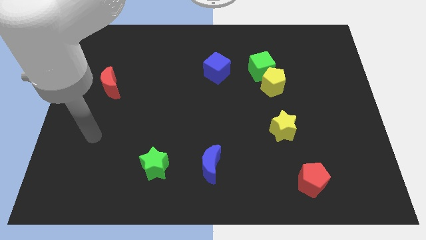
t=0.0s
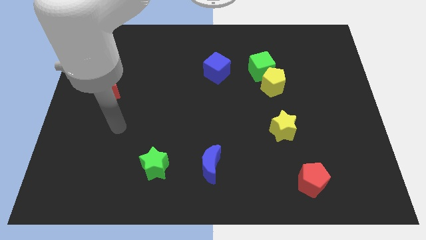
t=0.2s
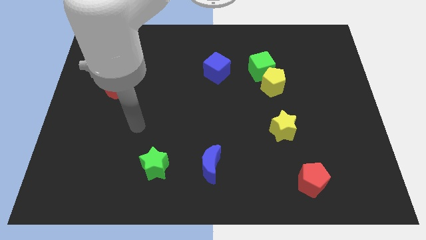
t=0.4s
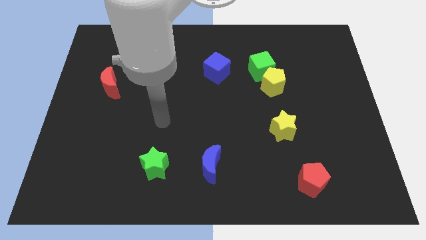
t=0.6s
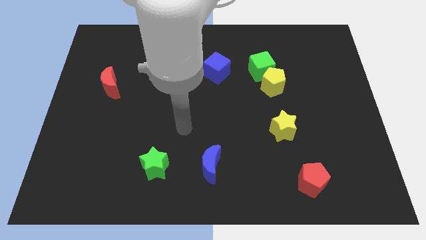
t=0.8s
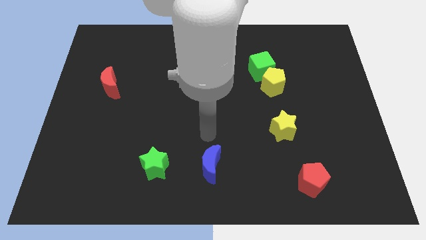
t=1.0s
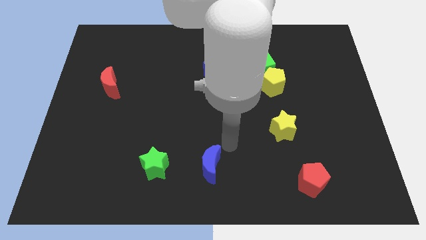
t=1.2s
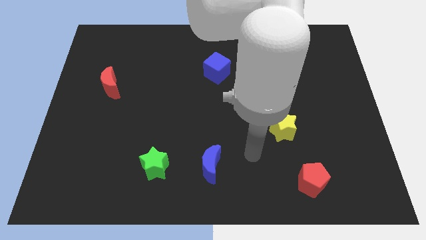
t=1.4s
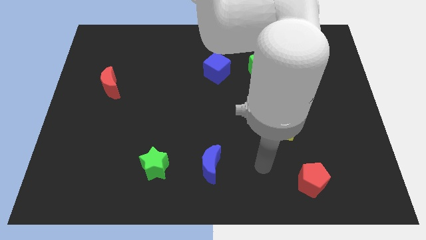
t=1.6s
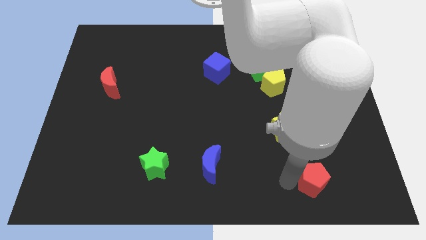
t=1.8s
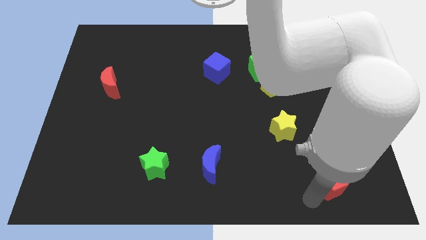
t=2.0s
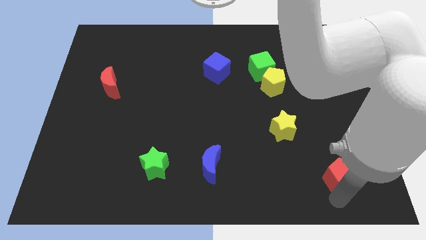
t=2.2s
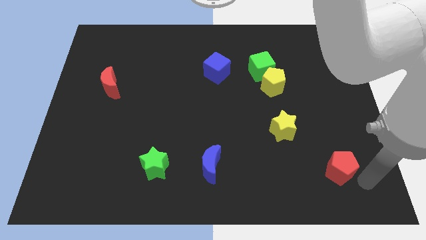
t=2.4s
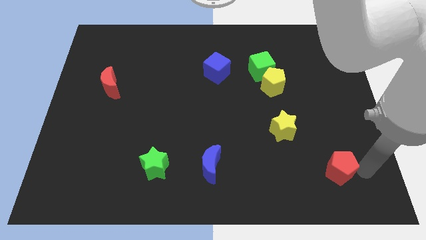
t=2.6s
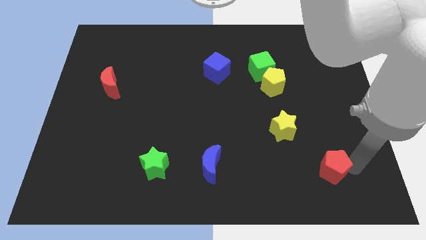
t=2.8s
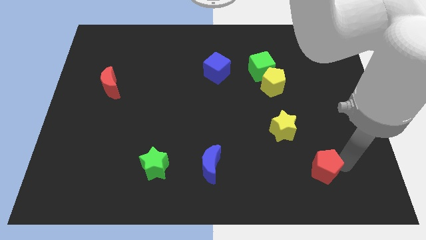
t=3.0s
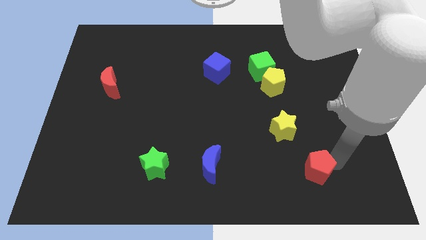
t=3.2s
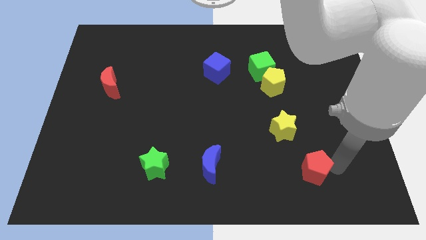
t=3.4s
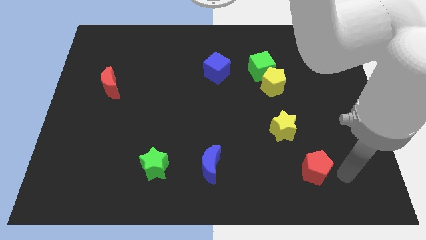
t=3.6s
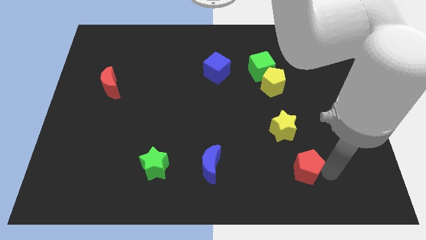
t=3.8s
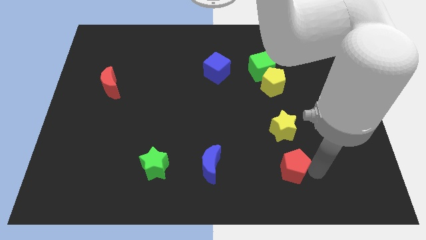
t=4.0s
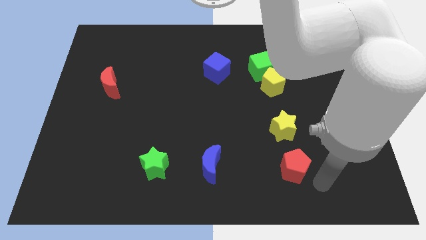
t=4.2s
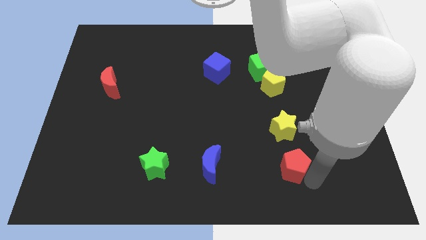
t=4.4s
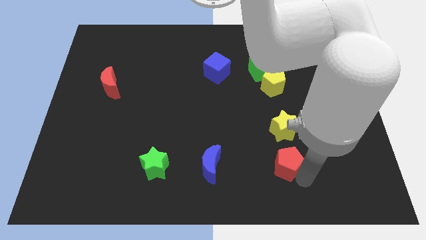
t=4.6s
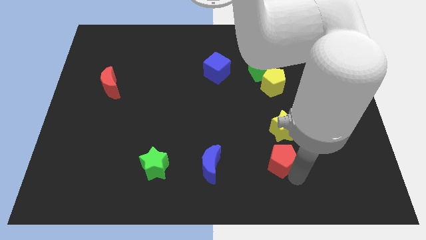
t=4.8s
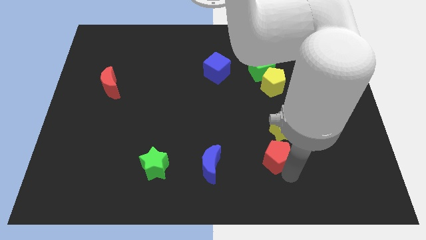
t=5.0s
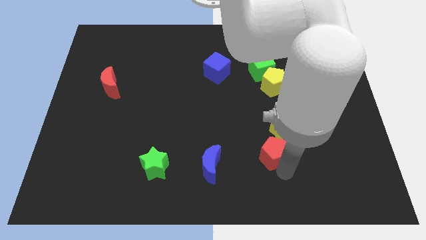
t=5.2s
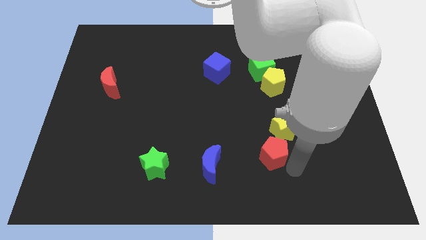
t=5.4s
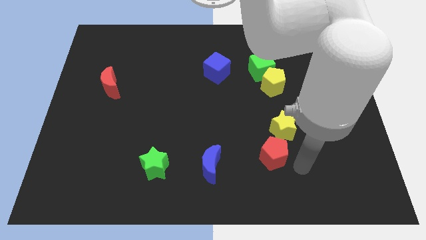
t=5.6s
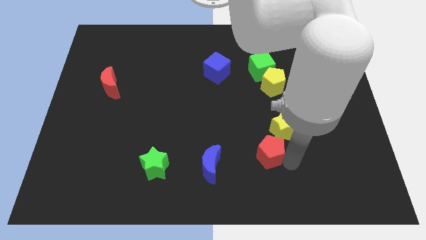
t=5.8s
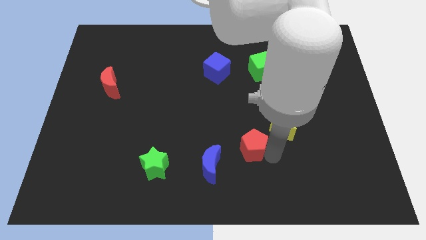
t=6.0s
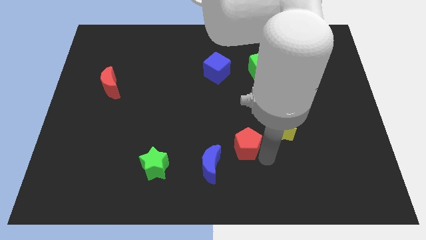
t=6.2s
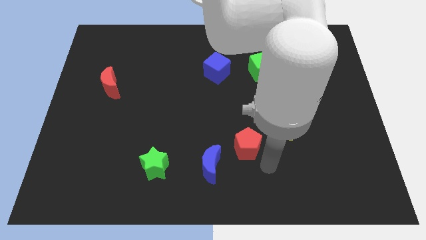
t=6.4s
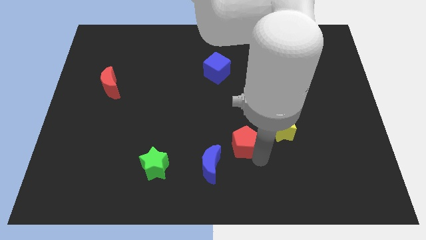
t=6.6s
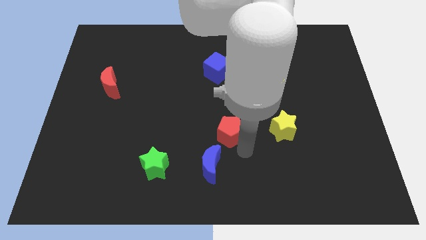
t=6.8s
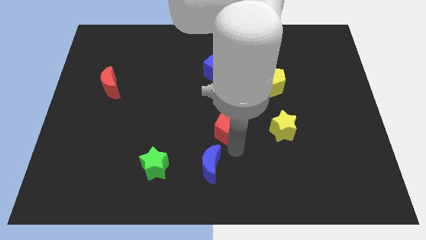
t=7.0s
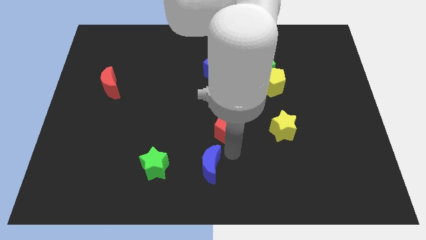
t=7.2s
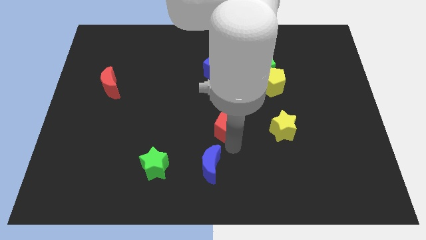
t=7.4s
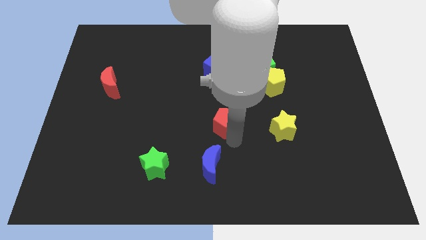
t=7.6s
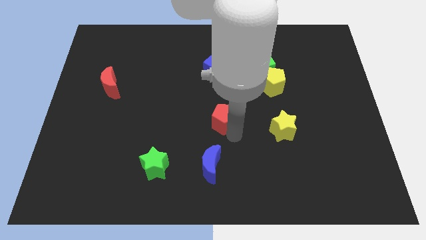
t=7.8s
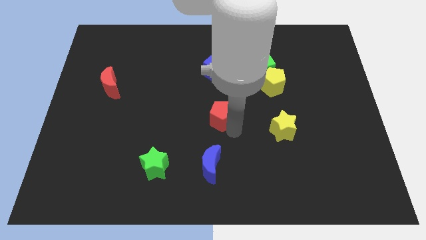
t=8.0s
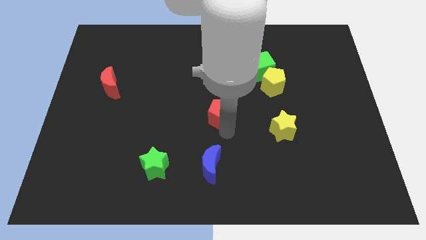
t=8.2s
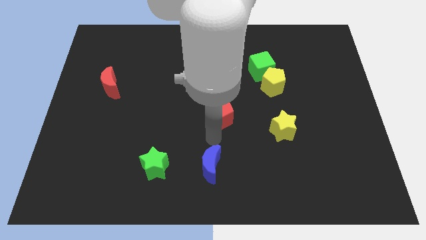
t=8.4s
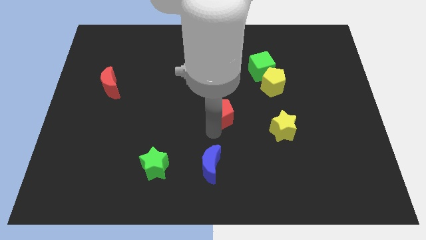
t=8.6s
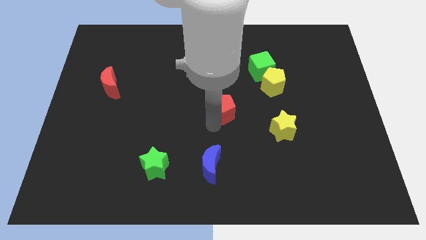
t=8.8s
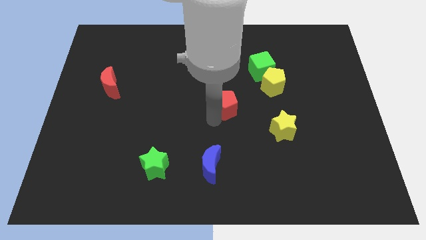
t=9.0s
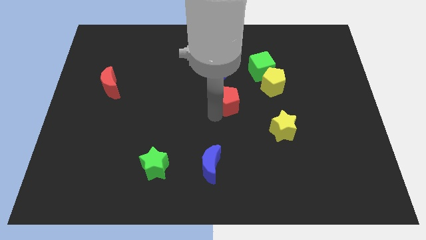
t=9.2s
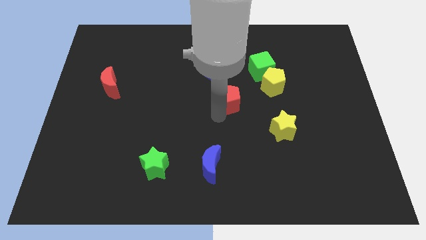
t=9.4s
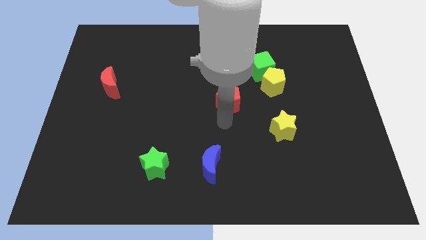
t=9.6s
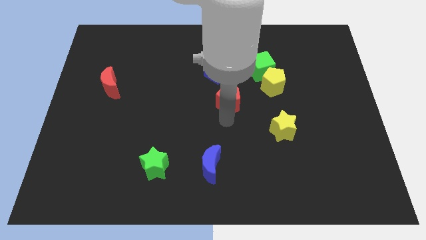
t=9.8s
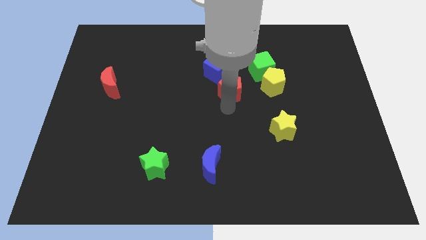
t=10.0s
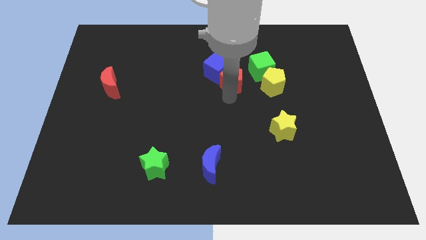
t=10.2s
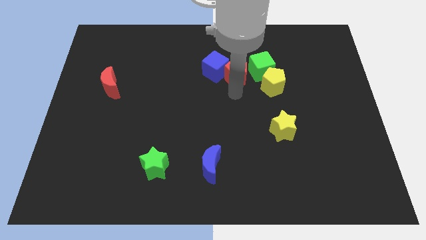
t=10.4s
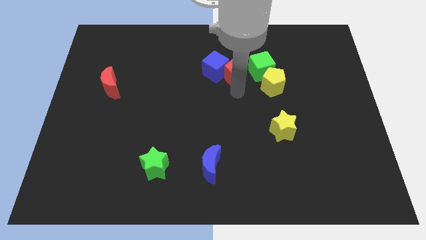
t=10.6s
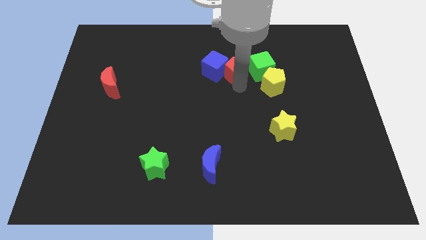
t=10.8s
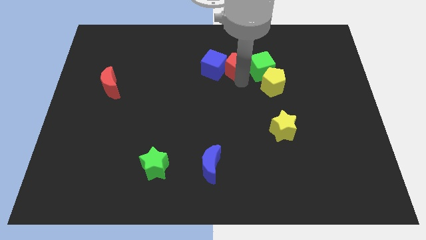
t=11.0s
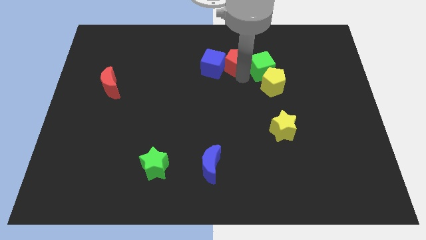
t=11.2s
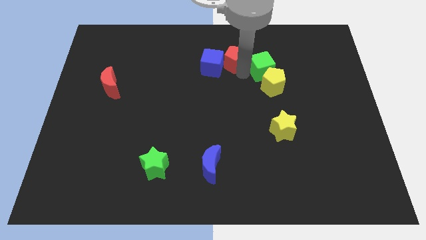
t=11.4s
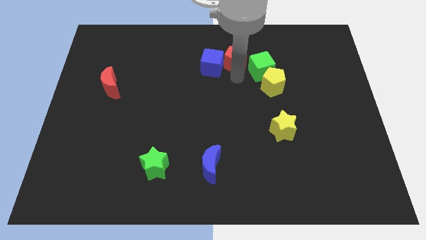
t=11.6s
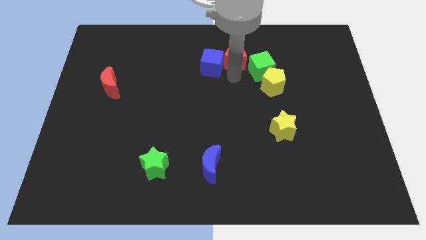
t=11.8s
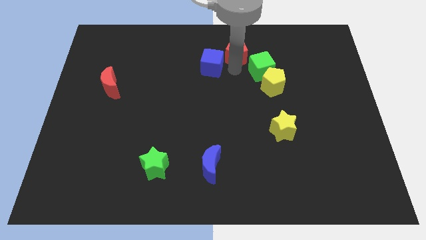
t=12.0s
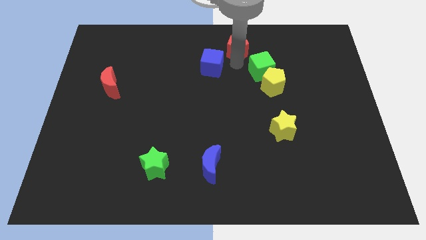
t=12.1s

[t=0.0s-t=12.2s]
put the red pentagon to the towards your base
